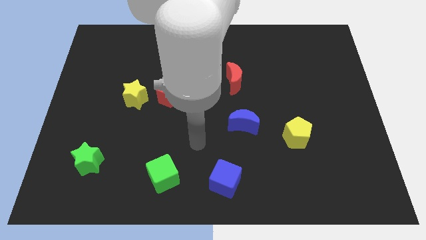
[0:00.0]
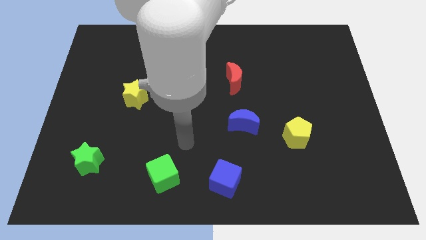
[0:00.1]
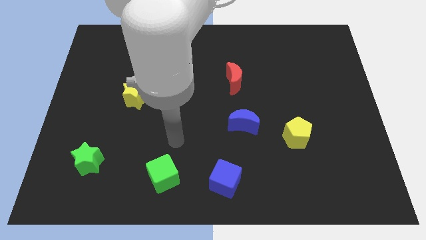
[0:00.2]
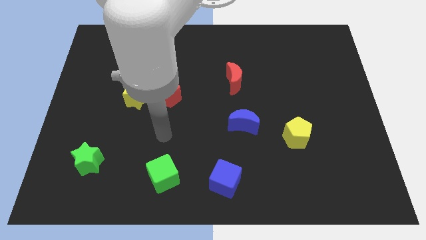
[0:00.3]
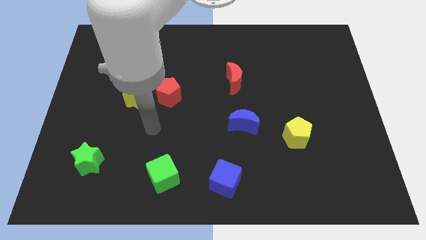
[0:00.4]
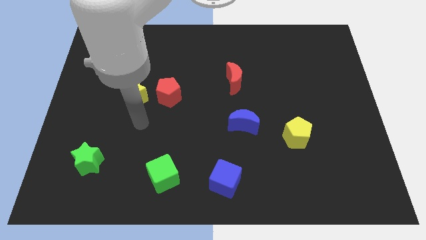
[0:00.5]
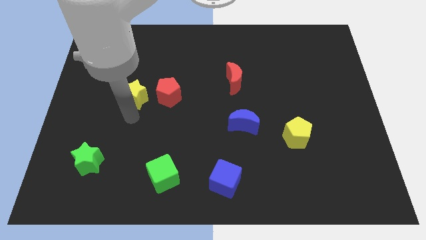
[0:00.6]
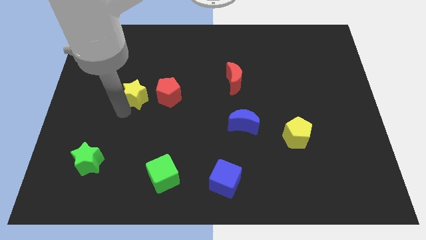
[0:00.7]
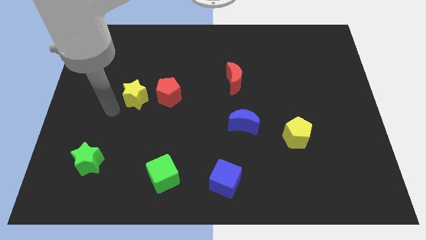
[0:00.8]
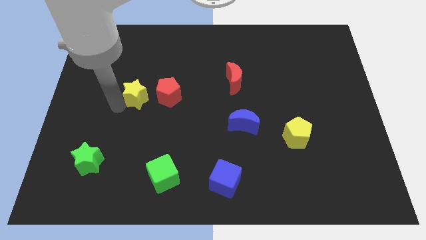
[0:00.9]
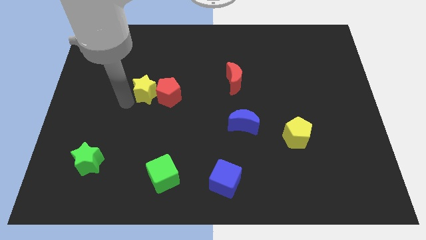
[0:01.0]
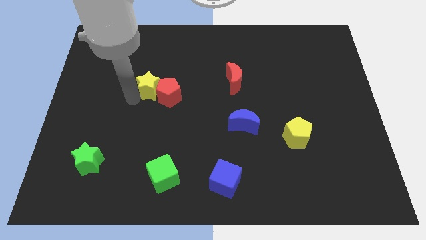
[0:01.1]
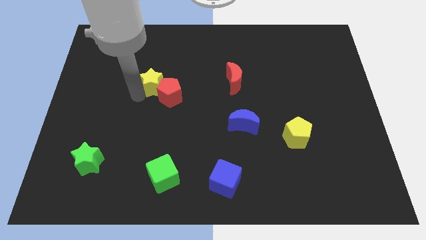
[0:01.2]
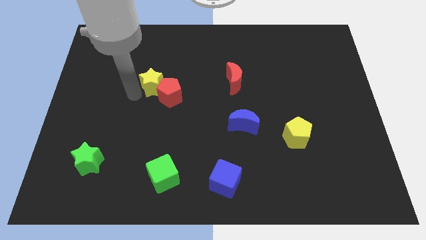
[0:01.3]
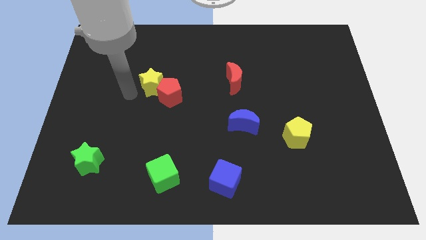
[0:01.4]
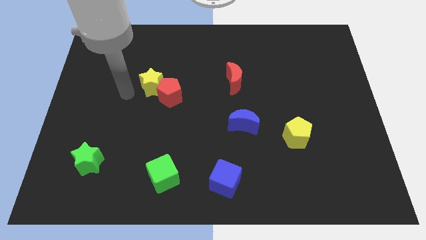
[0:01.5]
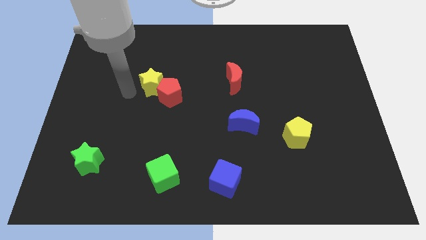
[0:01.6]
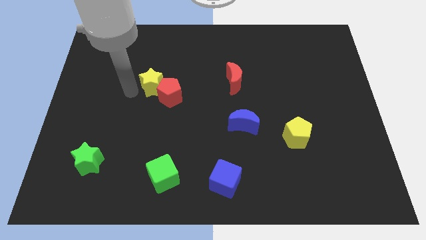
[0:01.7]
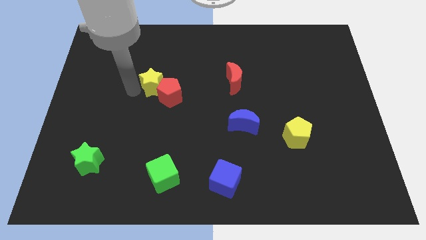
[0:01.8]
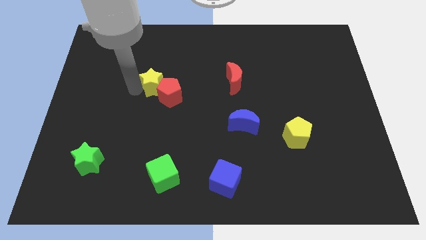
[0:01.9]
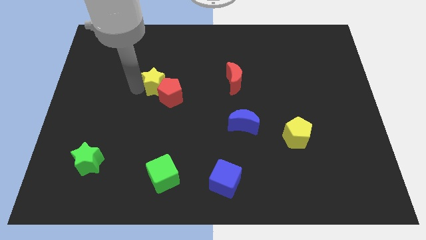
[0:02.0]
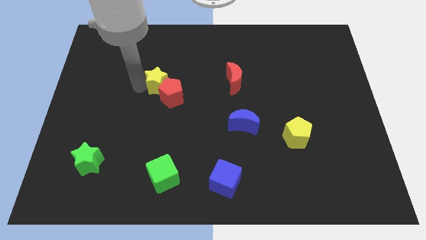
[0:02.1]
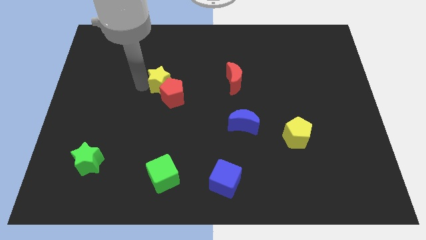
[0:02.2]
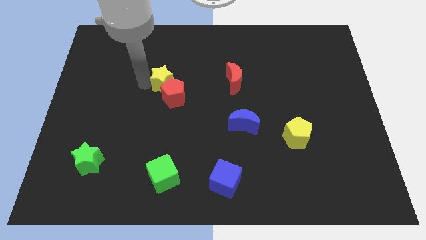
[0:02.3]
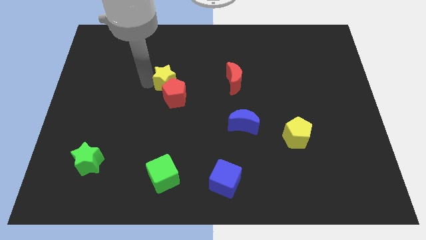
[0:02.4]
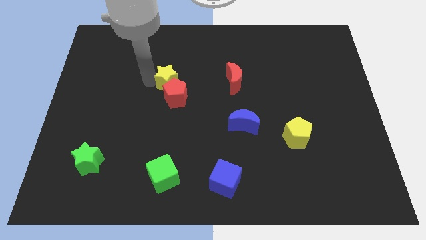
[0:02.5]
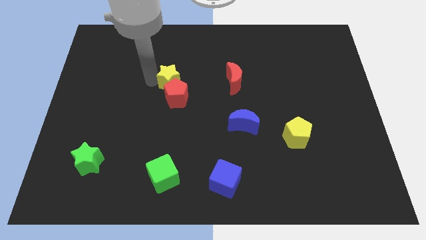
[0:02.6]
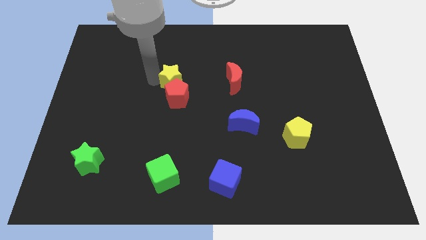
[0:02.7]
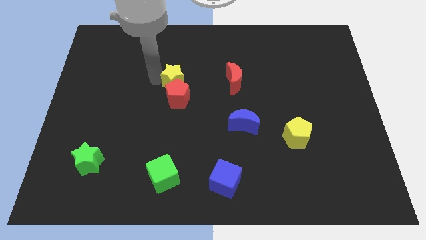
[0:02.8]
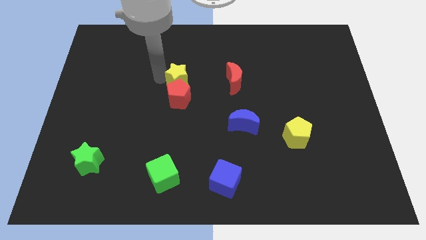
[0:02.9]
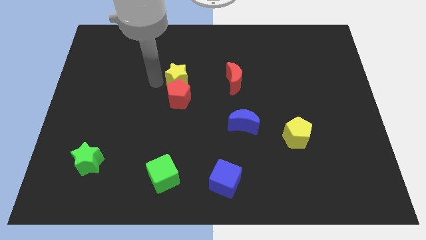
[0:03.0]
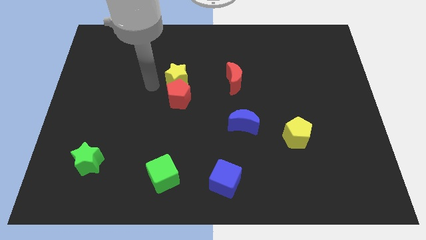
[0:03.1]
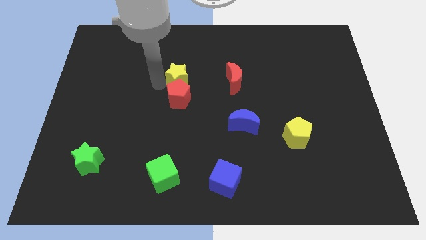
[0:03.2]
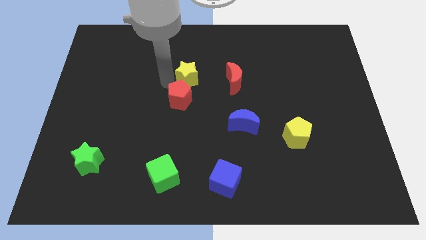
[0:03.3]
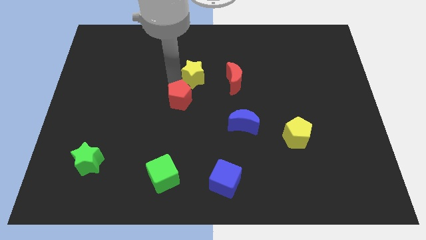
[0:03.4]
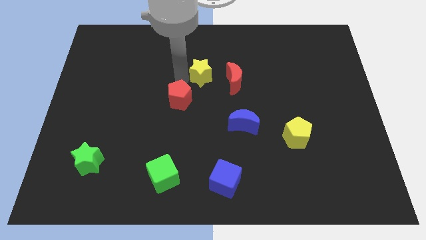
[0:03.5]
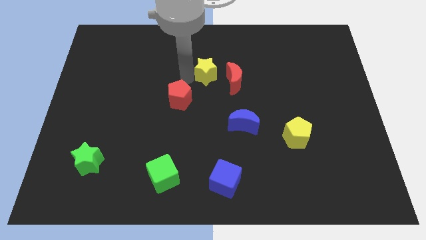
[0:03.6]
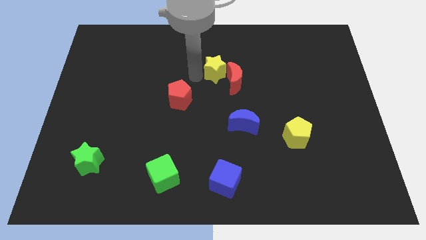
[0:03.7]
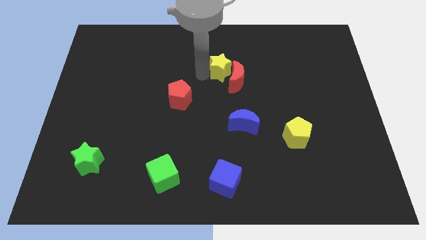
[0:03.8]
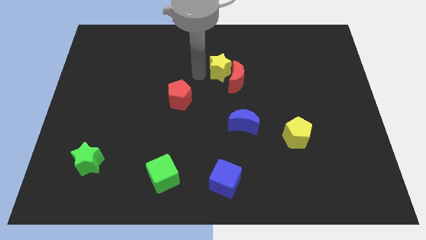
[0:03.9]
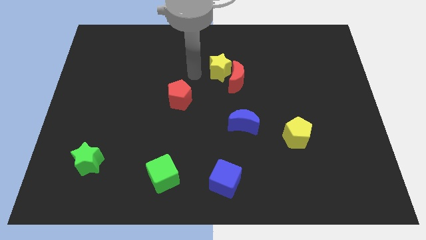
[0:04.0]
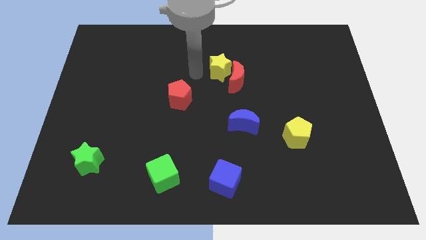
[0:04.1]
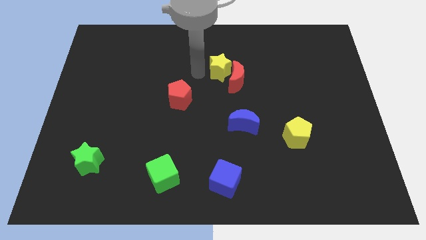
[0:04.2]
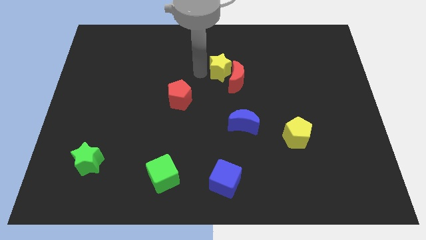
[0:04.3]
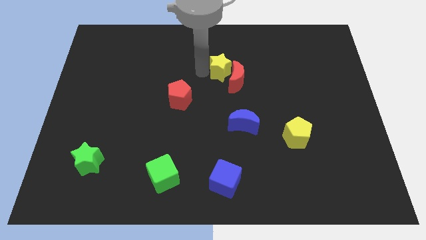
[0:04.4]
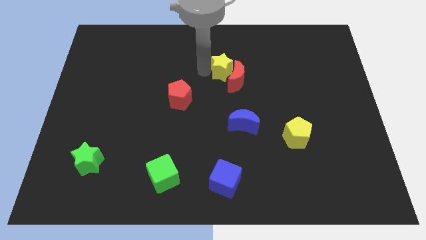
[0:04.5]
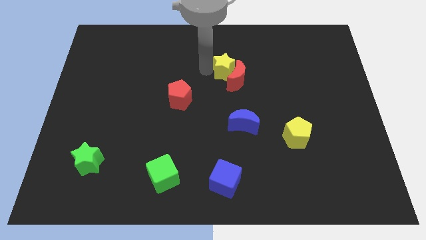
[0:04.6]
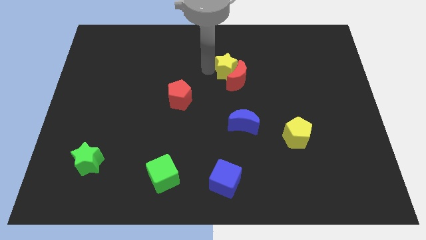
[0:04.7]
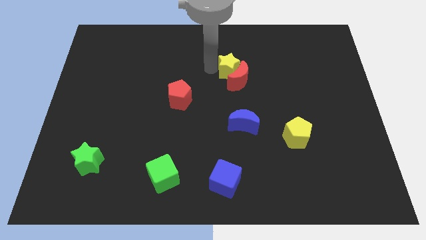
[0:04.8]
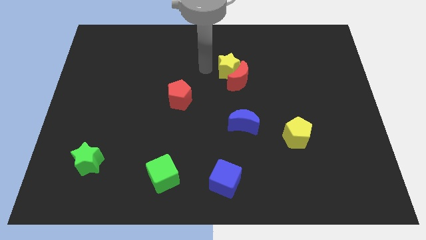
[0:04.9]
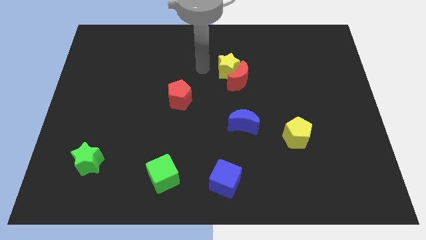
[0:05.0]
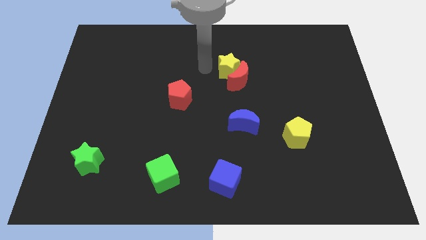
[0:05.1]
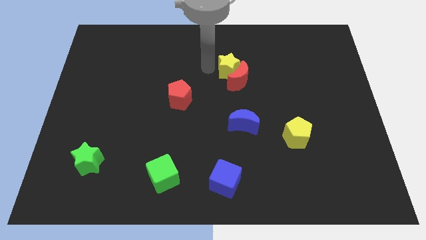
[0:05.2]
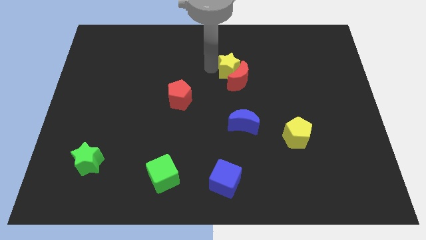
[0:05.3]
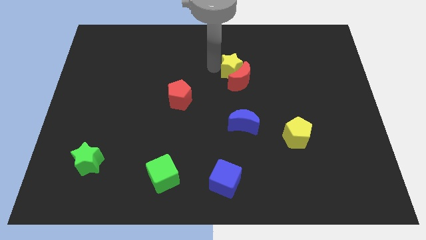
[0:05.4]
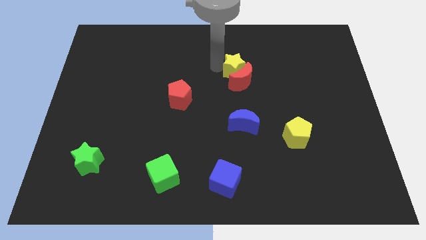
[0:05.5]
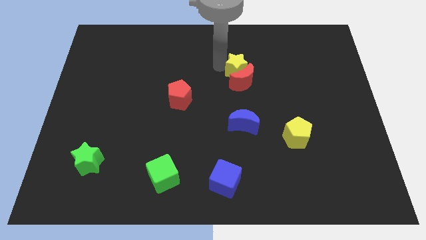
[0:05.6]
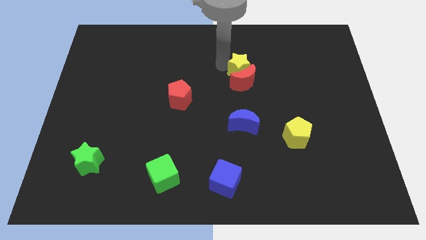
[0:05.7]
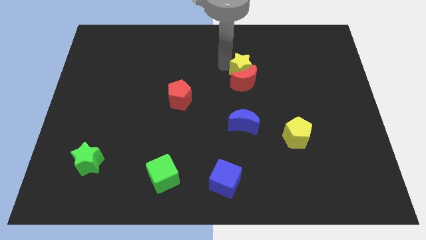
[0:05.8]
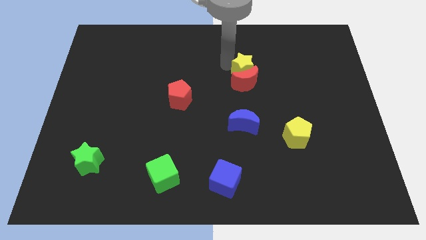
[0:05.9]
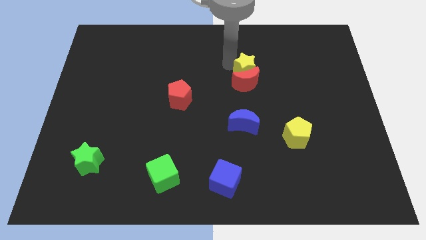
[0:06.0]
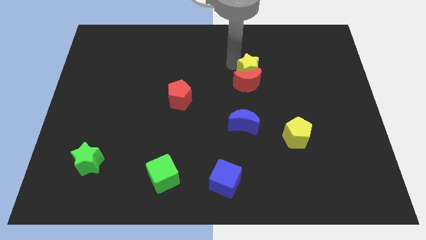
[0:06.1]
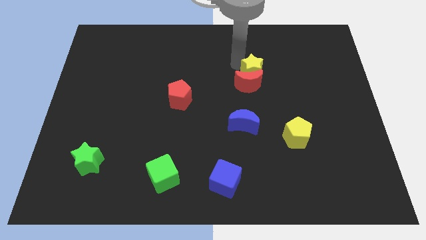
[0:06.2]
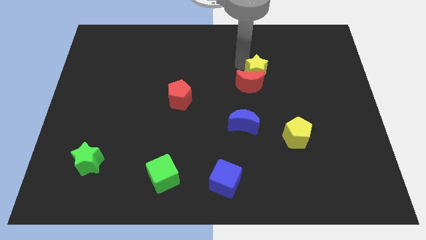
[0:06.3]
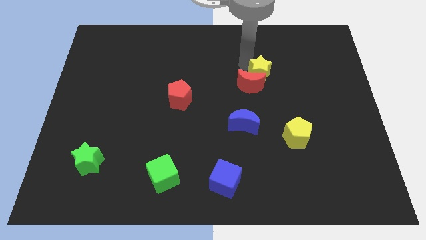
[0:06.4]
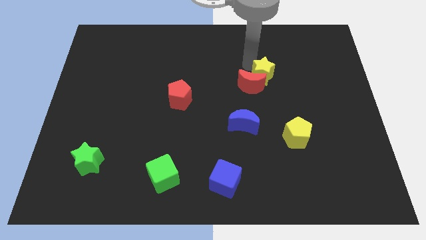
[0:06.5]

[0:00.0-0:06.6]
push the yellow star right of the red moon
